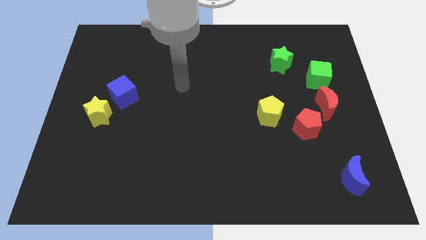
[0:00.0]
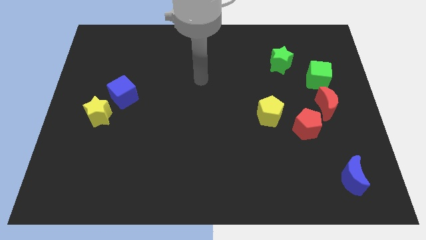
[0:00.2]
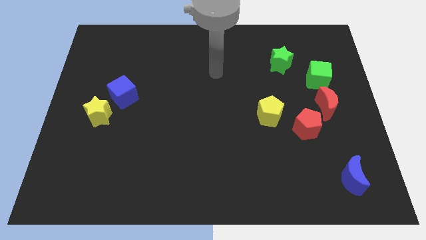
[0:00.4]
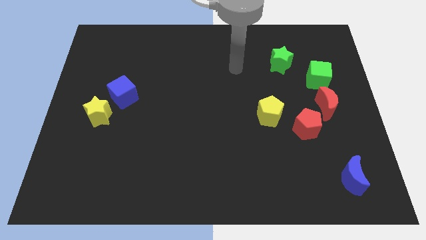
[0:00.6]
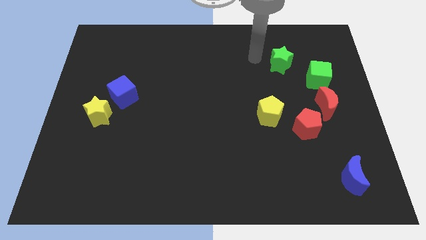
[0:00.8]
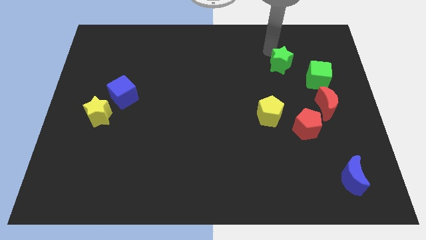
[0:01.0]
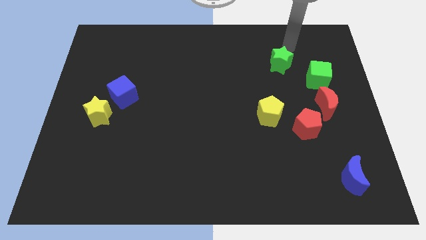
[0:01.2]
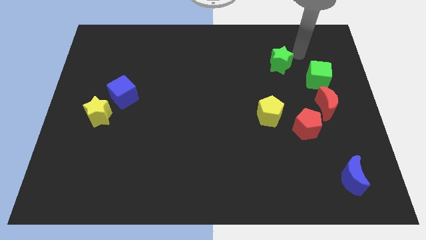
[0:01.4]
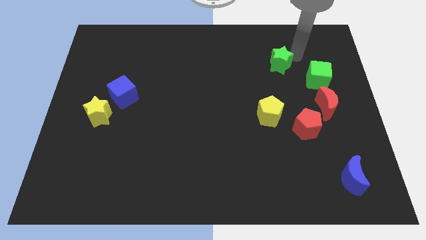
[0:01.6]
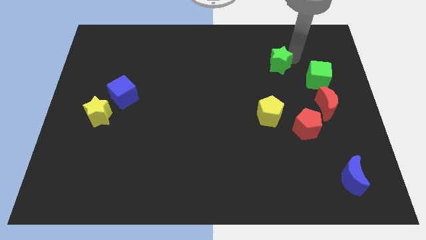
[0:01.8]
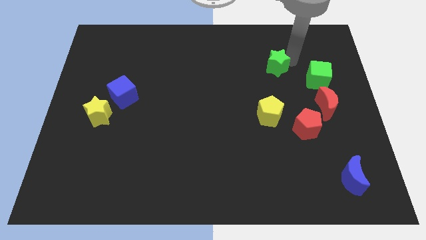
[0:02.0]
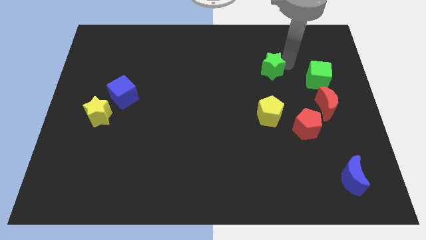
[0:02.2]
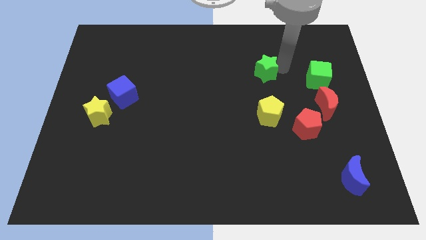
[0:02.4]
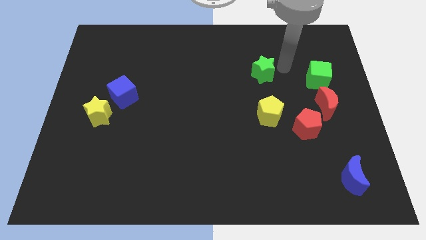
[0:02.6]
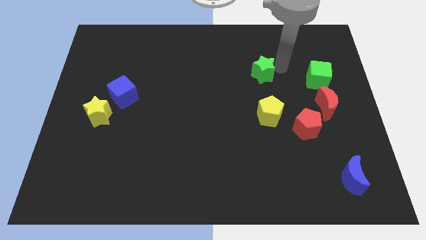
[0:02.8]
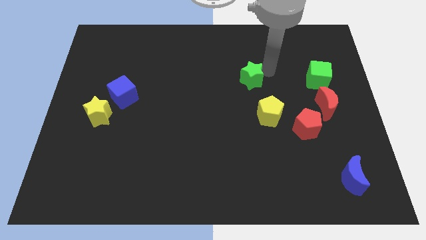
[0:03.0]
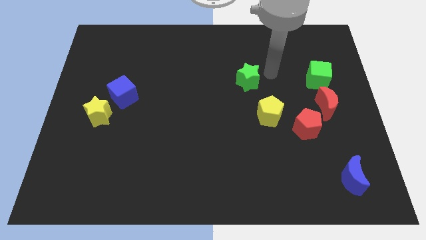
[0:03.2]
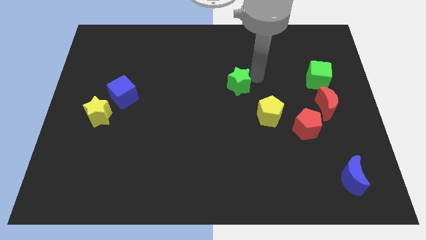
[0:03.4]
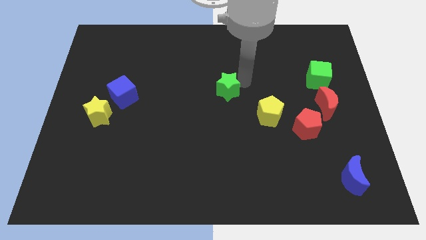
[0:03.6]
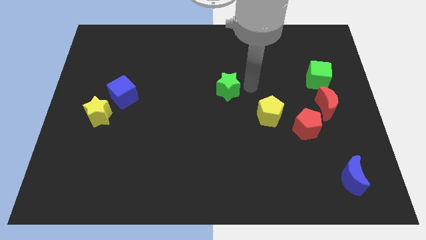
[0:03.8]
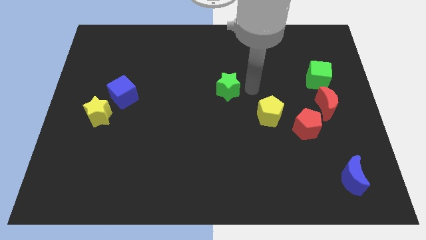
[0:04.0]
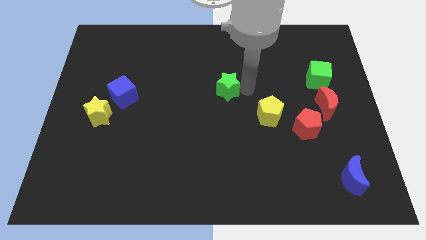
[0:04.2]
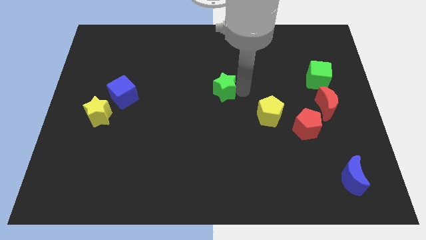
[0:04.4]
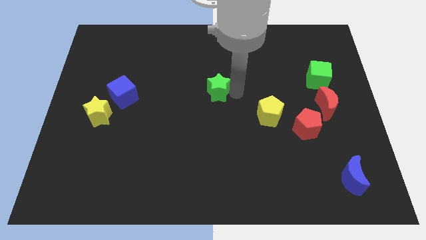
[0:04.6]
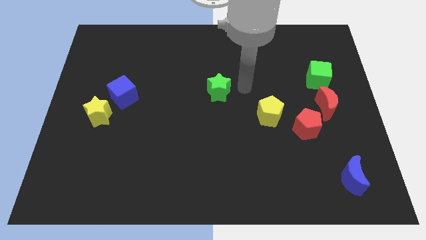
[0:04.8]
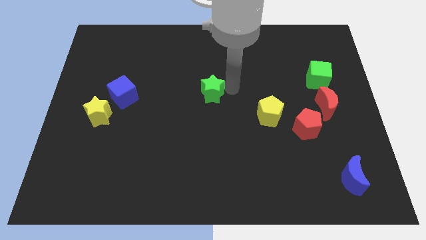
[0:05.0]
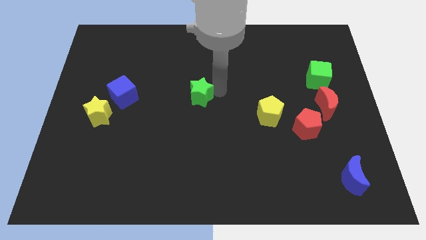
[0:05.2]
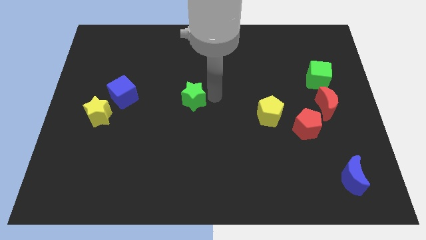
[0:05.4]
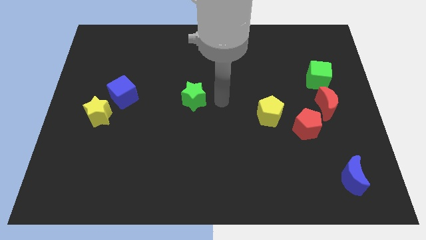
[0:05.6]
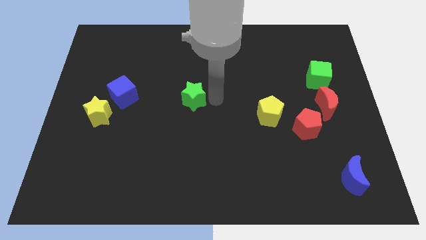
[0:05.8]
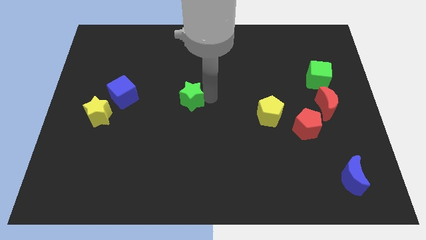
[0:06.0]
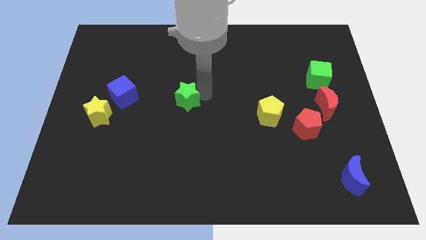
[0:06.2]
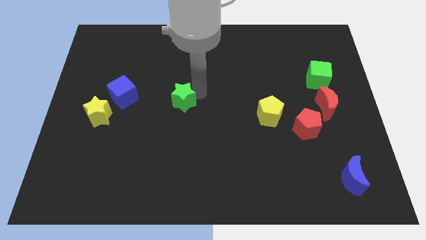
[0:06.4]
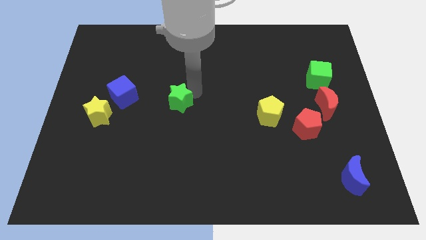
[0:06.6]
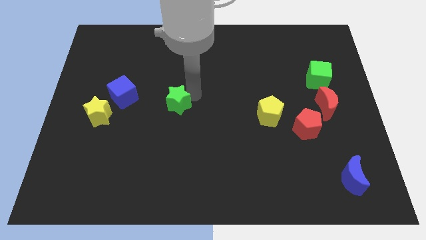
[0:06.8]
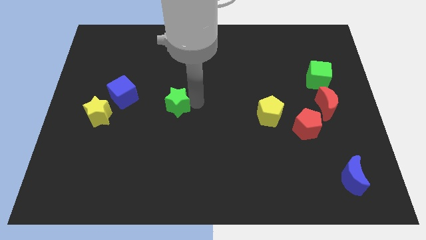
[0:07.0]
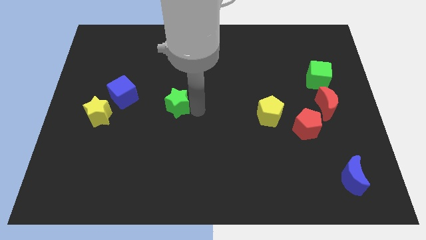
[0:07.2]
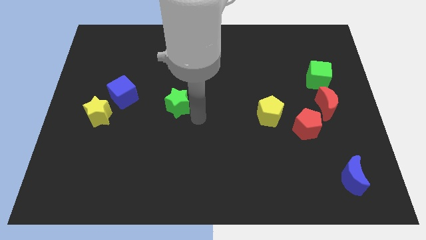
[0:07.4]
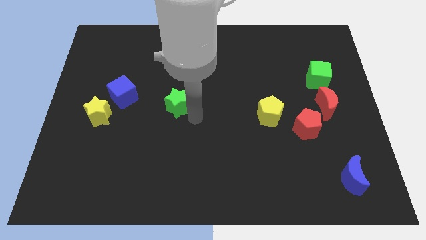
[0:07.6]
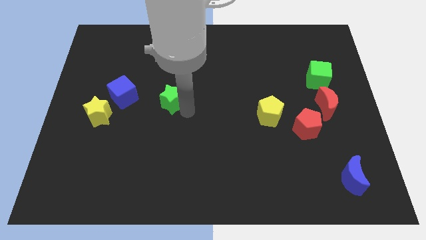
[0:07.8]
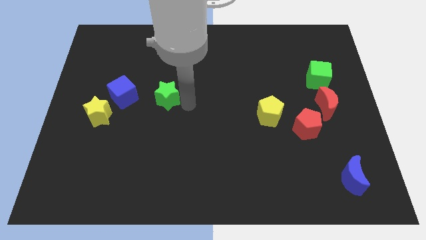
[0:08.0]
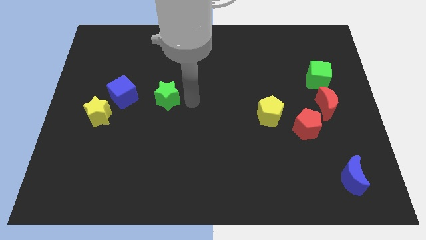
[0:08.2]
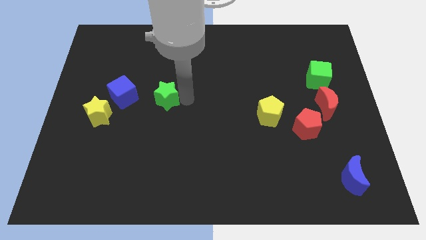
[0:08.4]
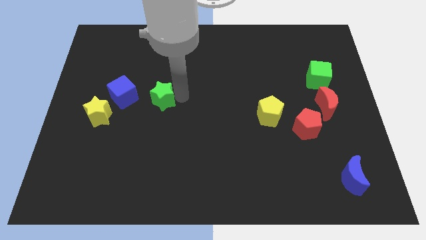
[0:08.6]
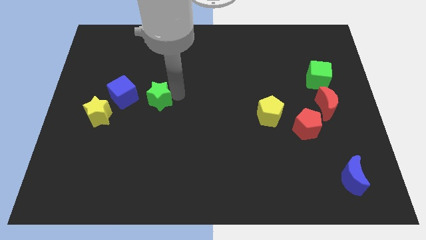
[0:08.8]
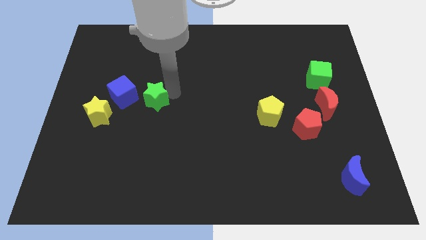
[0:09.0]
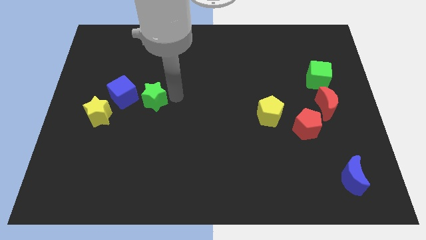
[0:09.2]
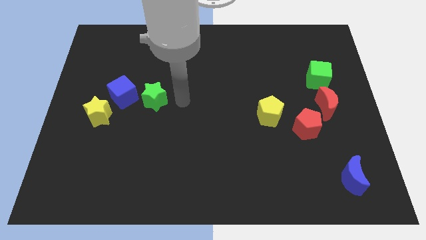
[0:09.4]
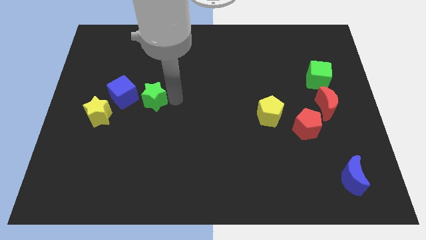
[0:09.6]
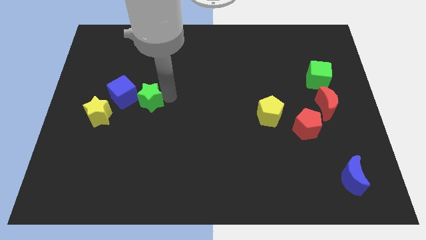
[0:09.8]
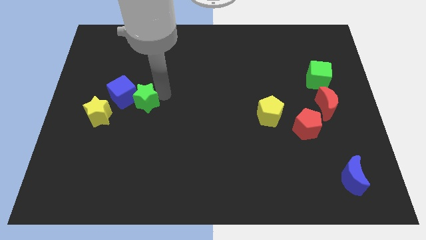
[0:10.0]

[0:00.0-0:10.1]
slide the green star towards the blue cube

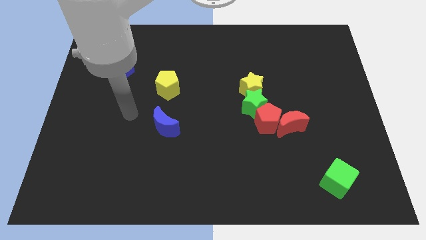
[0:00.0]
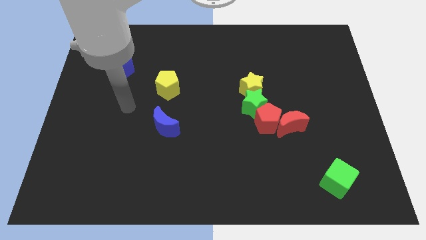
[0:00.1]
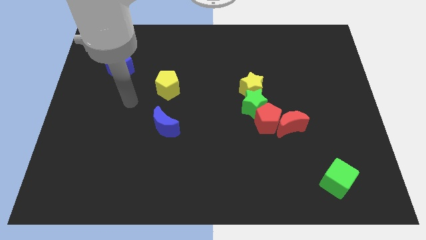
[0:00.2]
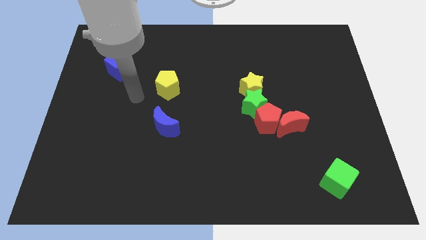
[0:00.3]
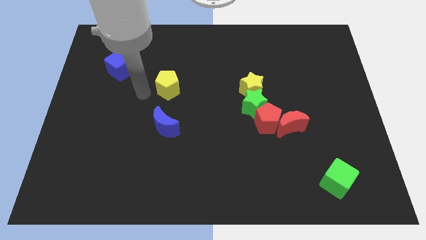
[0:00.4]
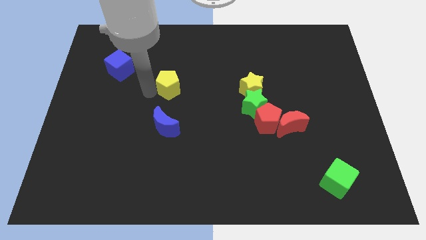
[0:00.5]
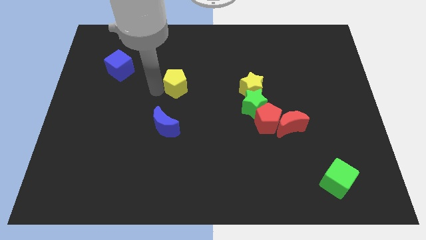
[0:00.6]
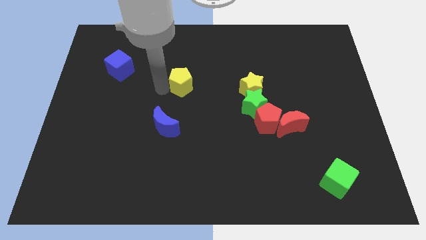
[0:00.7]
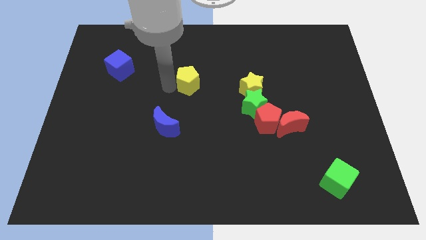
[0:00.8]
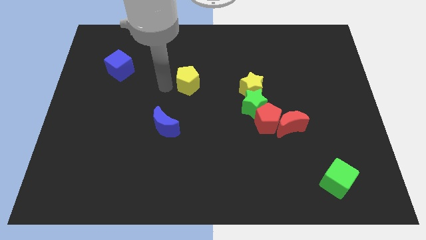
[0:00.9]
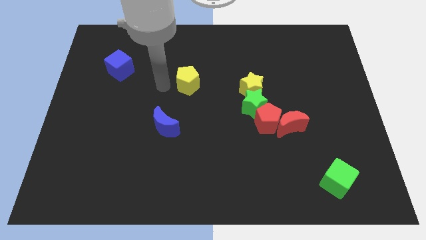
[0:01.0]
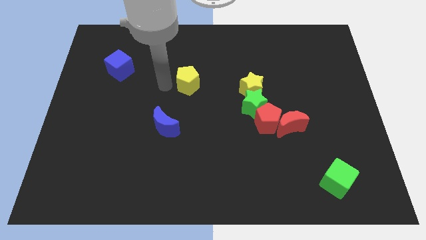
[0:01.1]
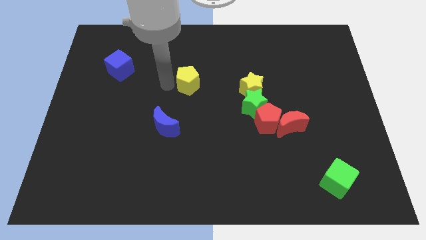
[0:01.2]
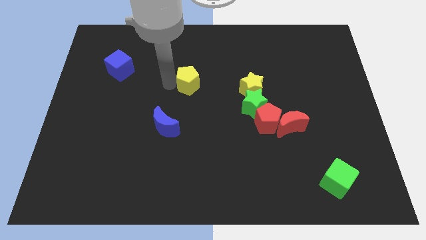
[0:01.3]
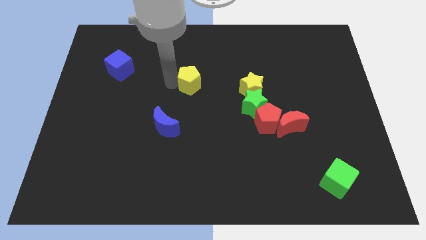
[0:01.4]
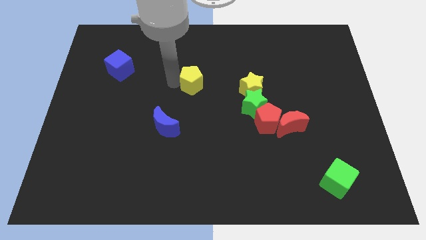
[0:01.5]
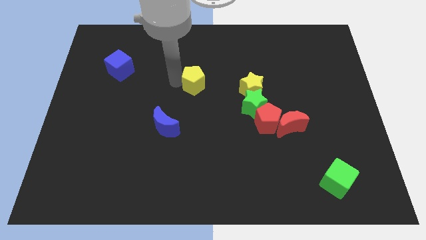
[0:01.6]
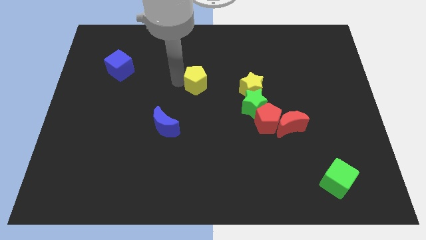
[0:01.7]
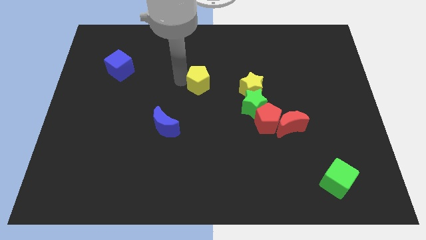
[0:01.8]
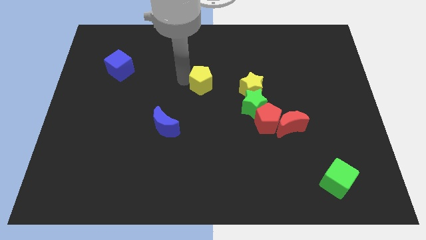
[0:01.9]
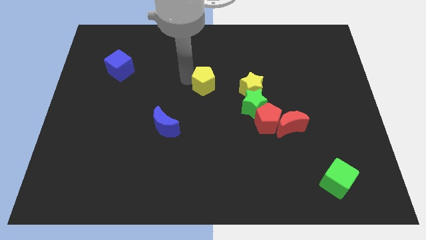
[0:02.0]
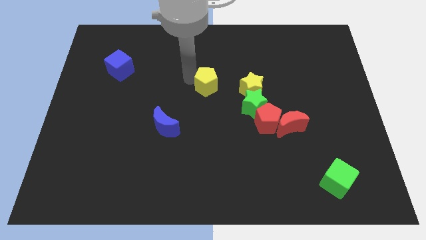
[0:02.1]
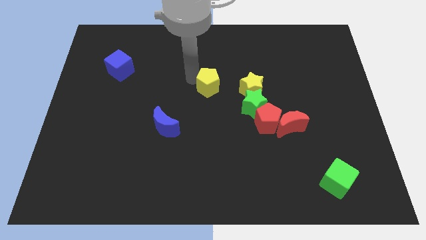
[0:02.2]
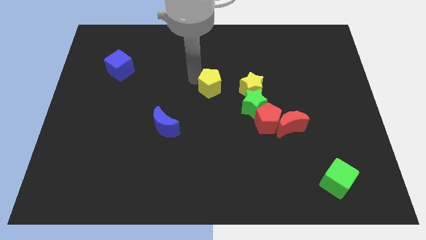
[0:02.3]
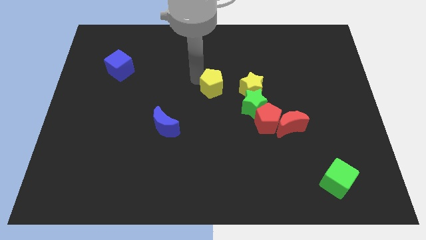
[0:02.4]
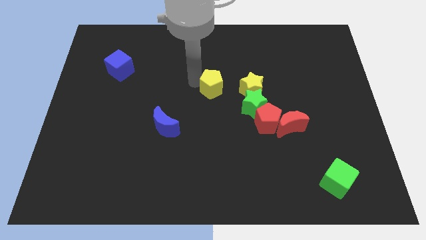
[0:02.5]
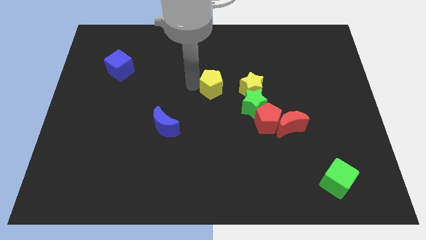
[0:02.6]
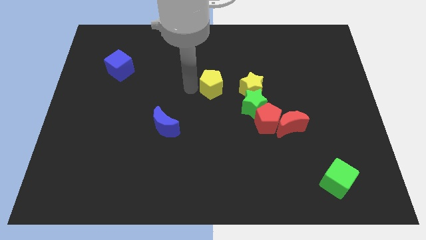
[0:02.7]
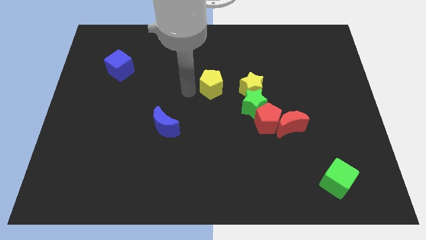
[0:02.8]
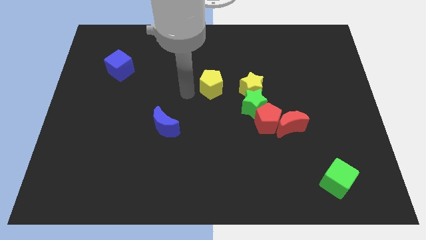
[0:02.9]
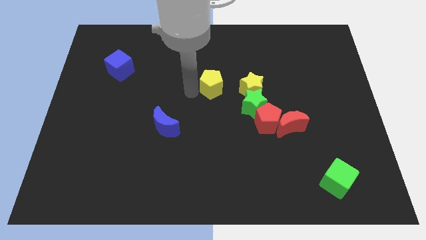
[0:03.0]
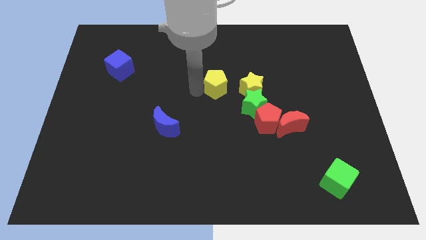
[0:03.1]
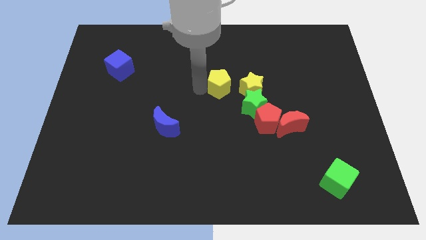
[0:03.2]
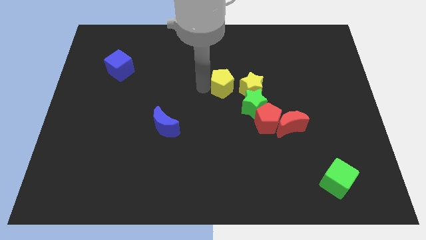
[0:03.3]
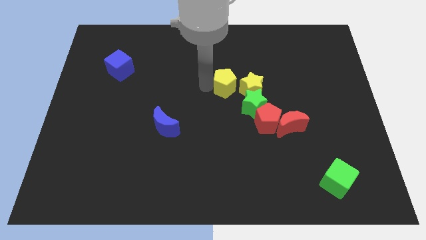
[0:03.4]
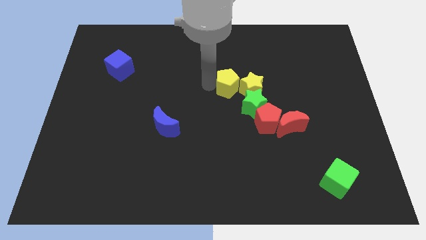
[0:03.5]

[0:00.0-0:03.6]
move the yellow pentagon to the yellow star
